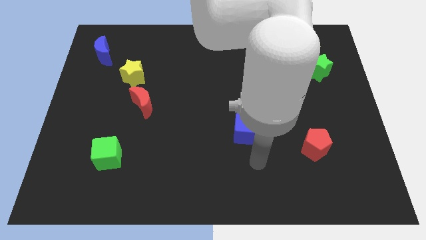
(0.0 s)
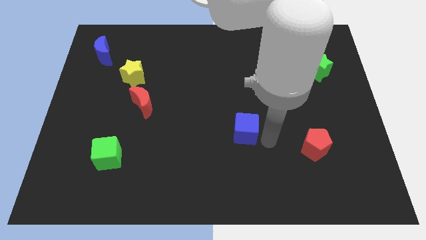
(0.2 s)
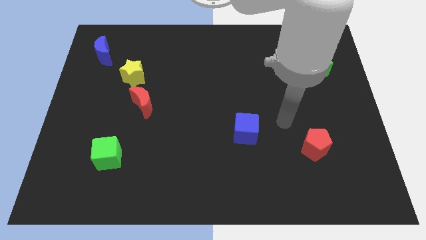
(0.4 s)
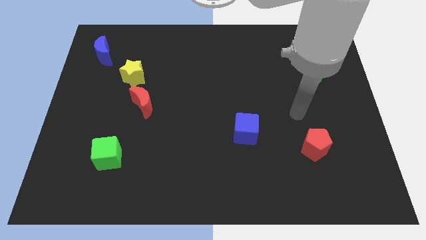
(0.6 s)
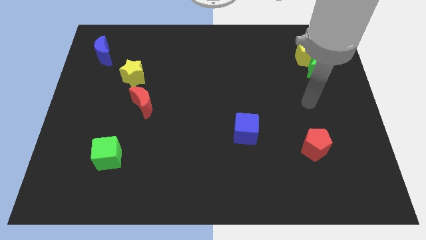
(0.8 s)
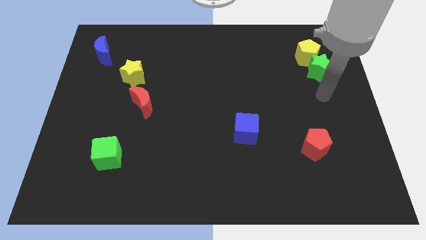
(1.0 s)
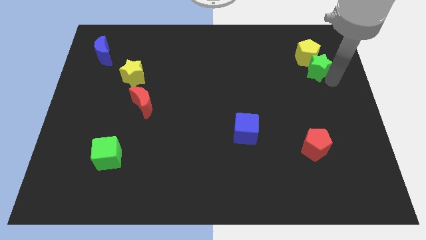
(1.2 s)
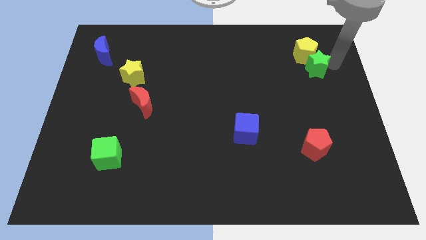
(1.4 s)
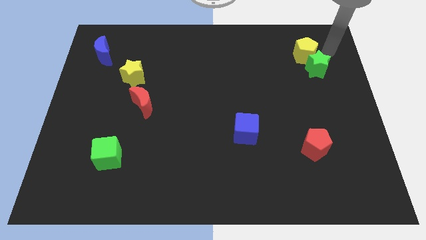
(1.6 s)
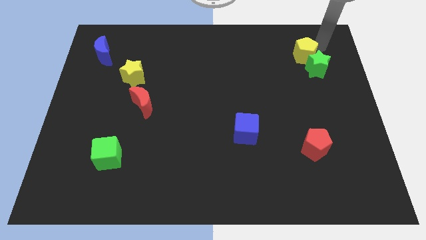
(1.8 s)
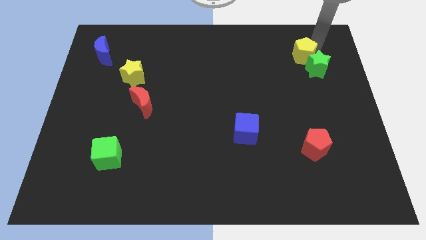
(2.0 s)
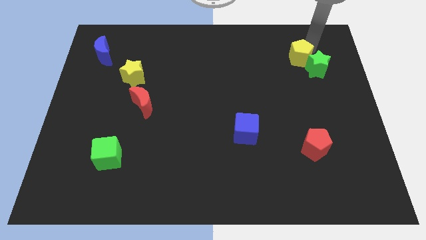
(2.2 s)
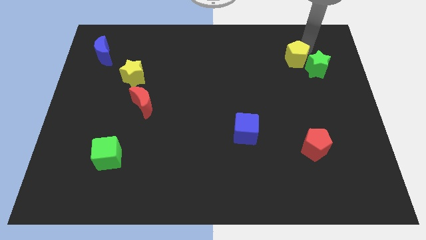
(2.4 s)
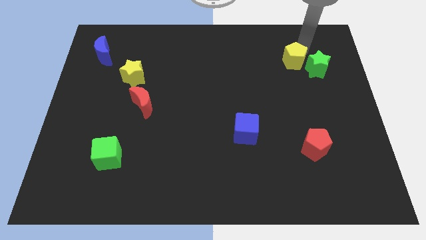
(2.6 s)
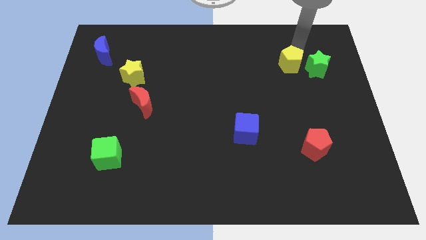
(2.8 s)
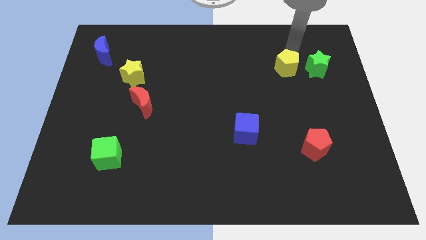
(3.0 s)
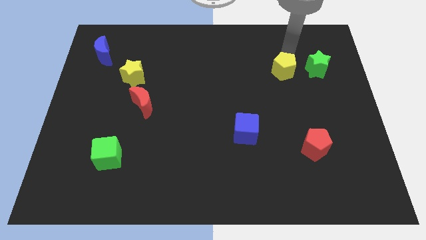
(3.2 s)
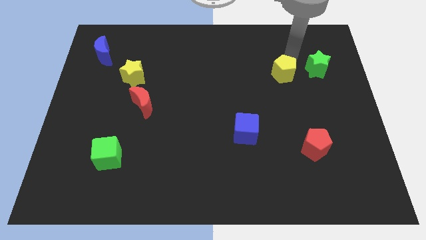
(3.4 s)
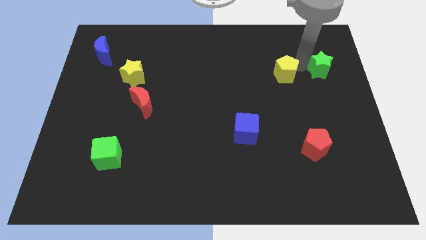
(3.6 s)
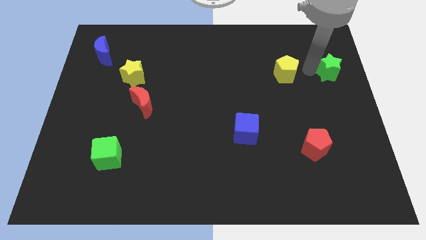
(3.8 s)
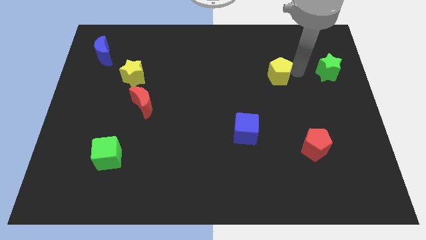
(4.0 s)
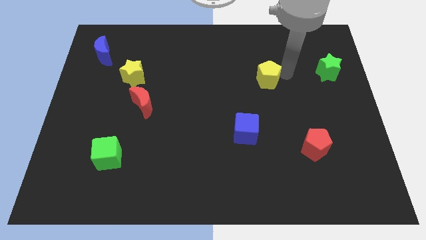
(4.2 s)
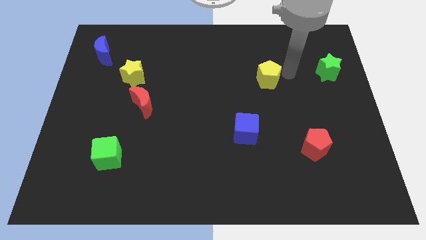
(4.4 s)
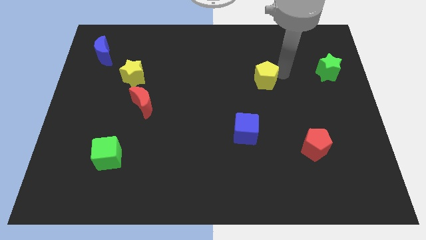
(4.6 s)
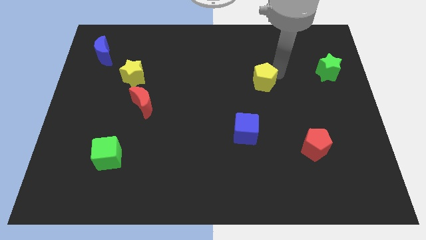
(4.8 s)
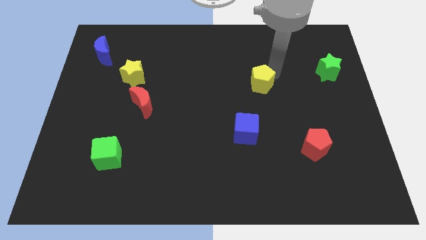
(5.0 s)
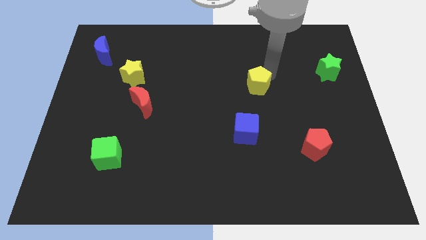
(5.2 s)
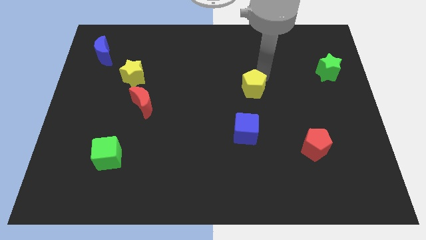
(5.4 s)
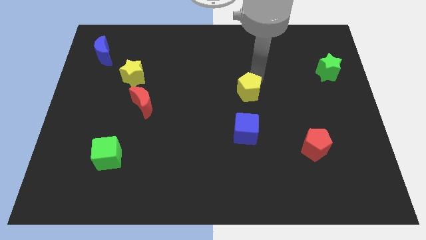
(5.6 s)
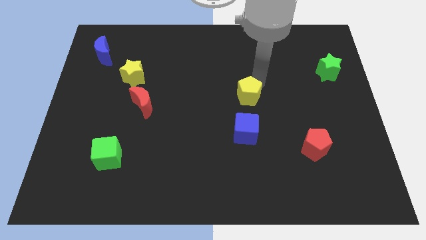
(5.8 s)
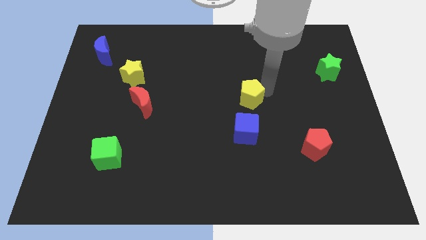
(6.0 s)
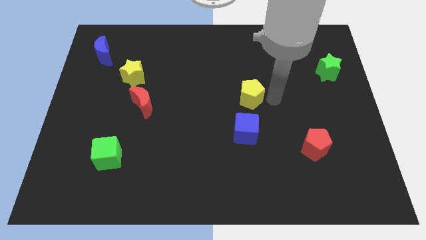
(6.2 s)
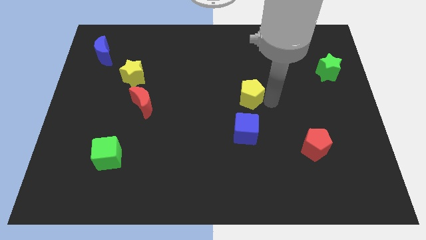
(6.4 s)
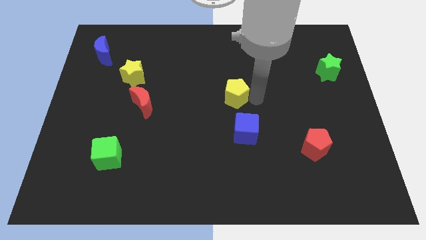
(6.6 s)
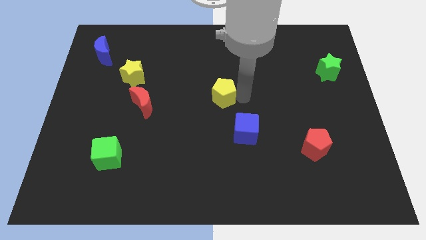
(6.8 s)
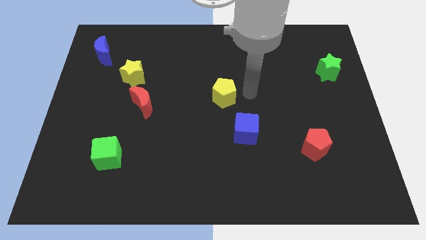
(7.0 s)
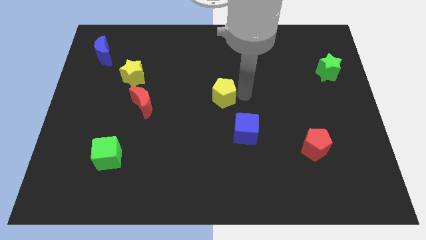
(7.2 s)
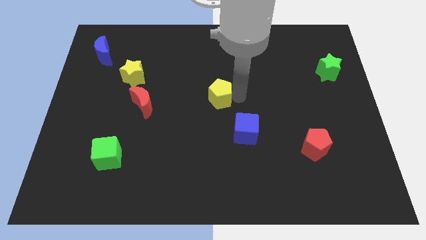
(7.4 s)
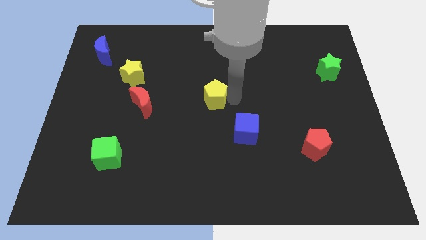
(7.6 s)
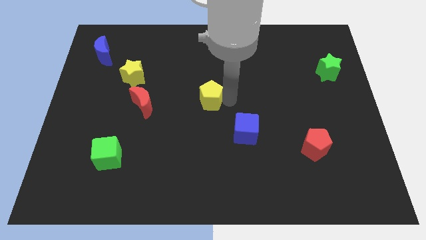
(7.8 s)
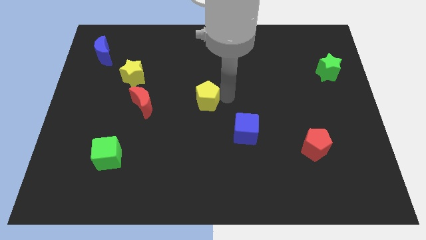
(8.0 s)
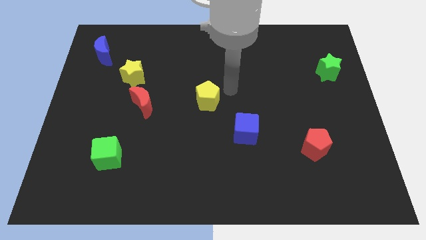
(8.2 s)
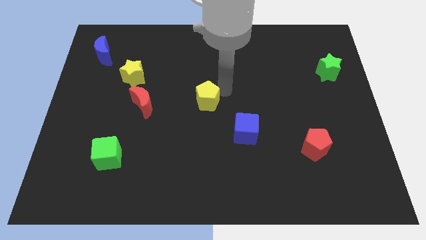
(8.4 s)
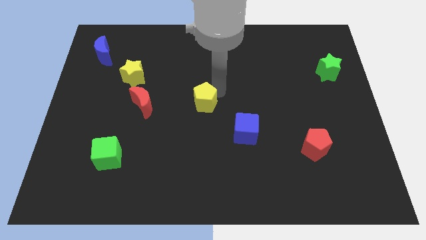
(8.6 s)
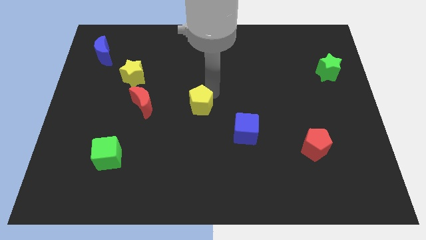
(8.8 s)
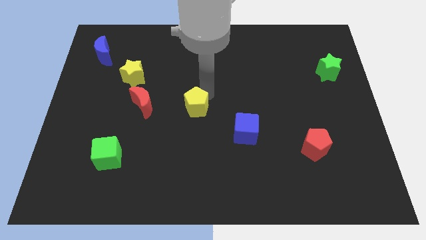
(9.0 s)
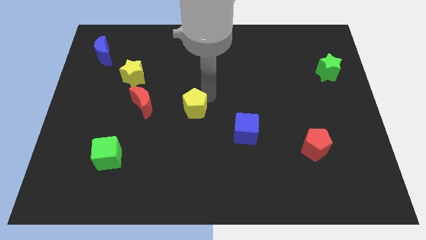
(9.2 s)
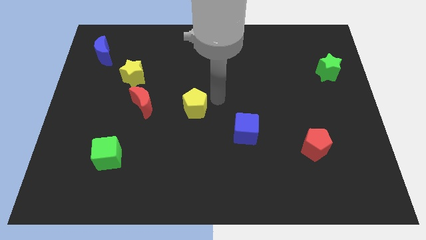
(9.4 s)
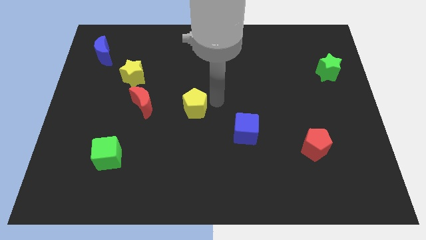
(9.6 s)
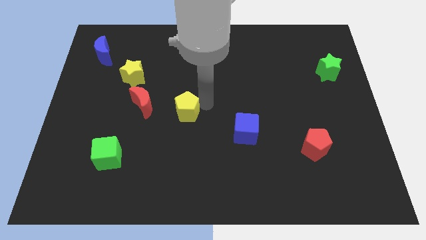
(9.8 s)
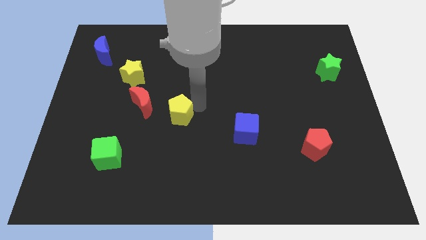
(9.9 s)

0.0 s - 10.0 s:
push the yellow pentagon to the bottom right side of the red moon

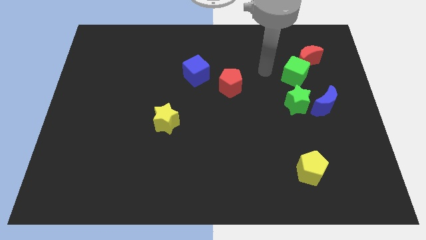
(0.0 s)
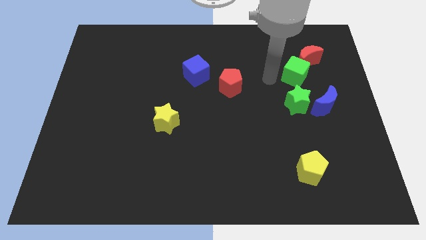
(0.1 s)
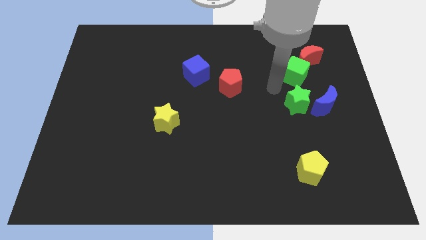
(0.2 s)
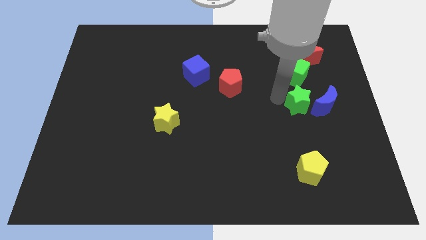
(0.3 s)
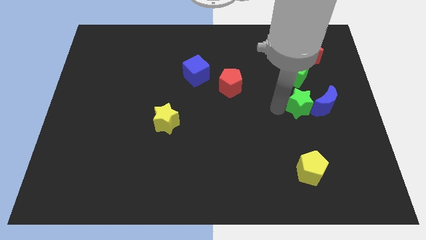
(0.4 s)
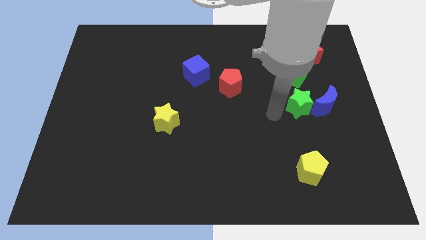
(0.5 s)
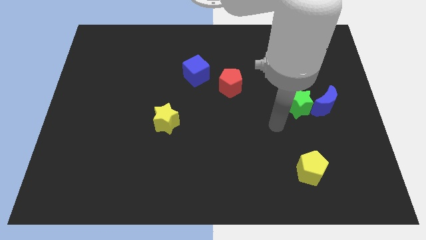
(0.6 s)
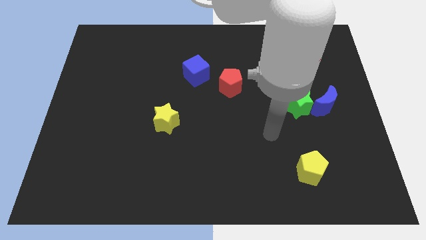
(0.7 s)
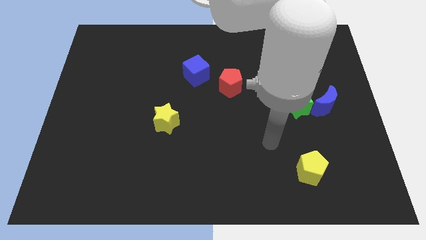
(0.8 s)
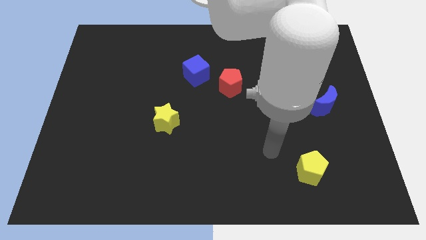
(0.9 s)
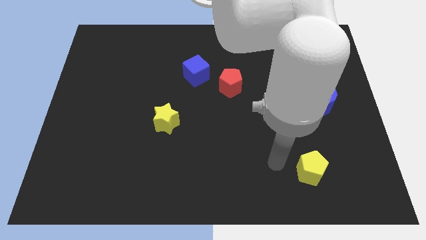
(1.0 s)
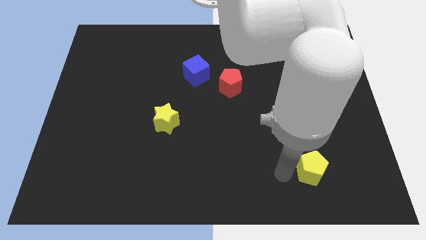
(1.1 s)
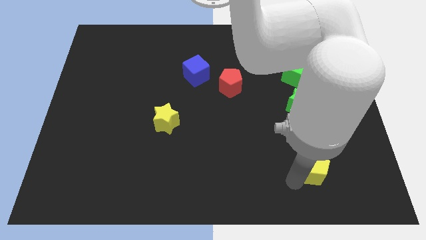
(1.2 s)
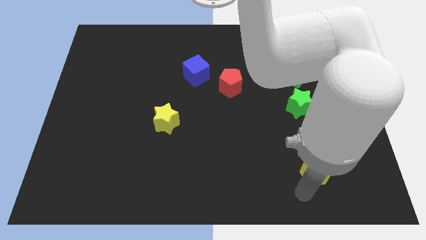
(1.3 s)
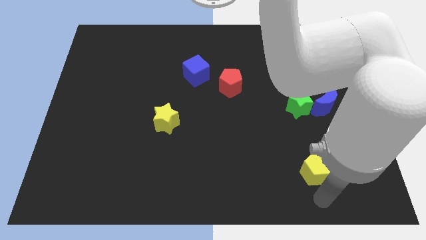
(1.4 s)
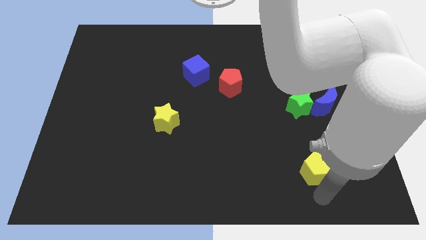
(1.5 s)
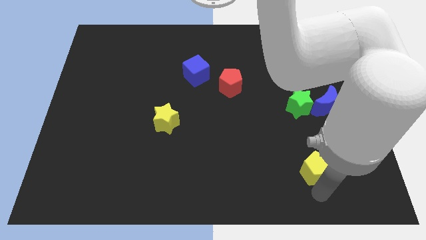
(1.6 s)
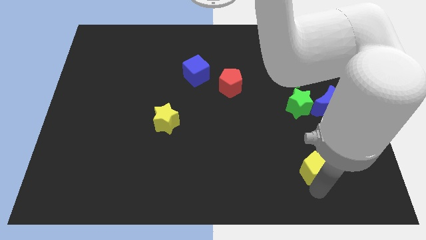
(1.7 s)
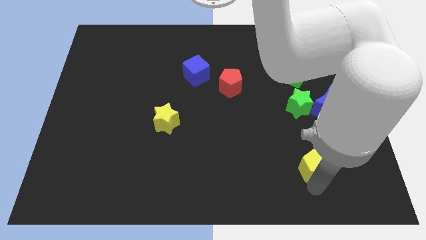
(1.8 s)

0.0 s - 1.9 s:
slide the yellow pentagon to the bottom of the green star

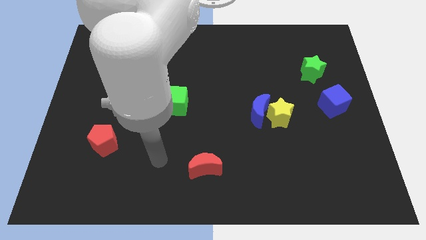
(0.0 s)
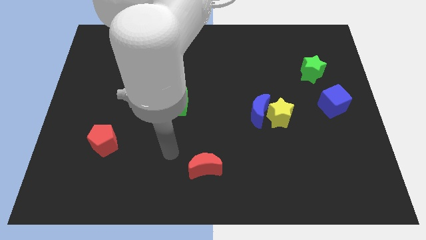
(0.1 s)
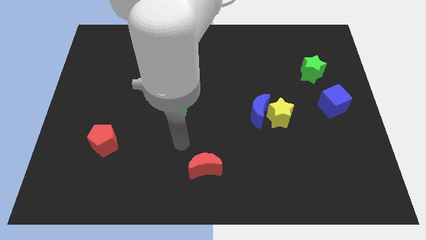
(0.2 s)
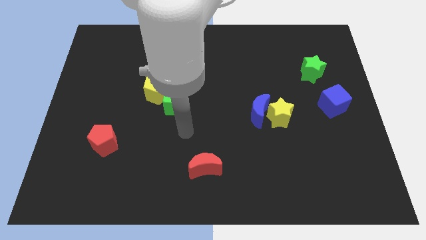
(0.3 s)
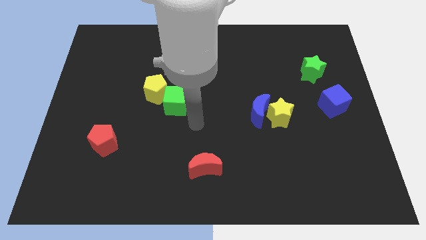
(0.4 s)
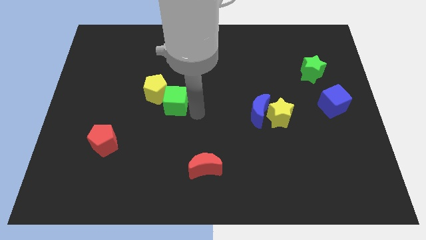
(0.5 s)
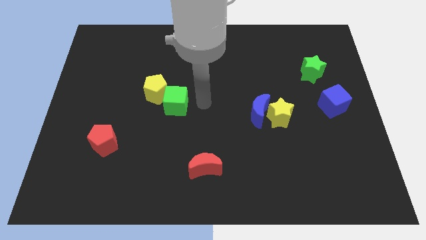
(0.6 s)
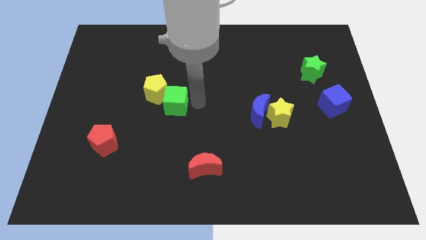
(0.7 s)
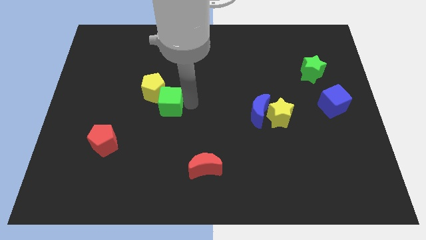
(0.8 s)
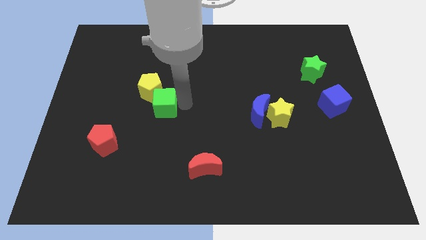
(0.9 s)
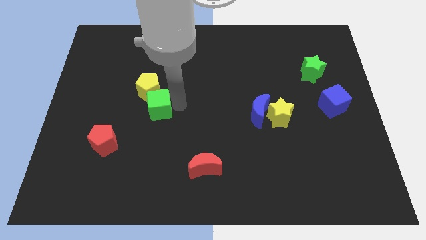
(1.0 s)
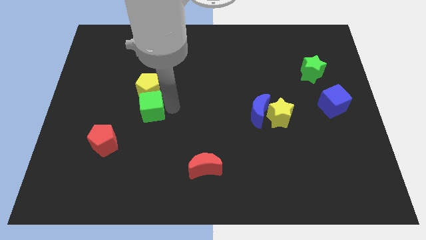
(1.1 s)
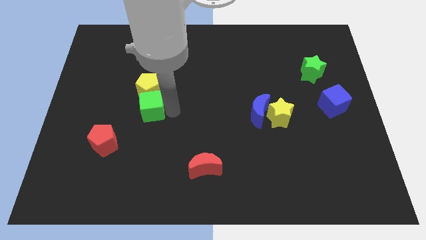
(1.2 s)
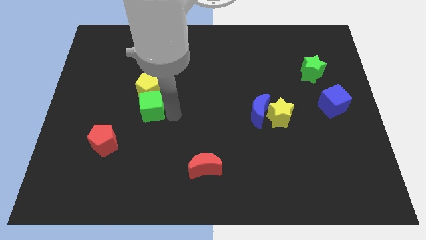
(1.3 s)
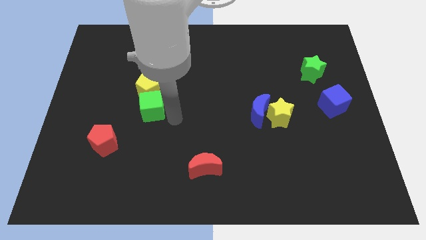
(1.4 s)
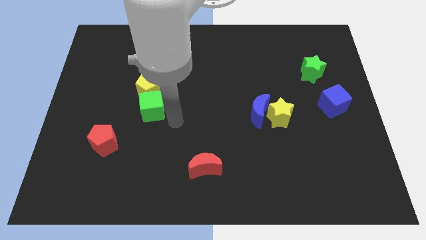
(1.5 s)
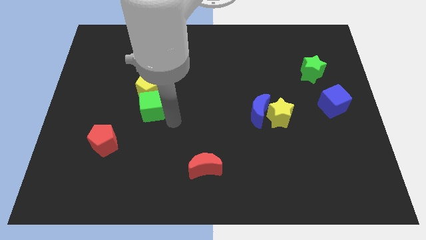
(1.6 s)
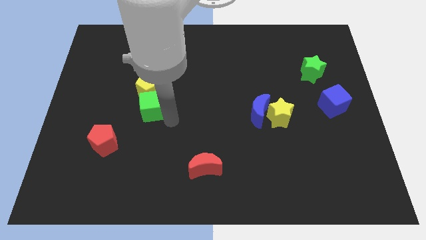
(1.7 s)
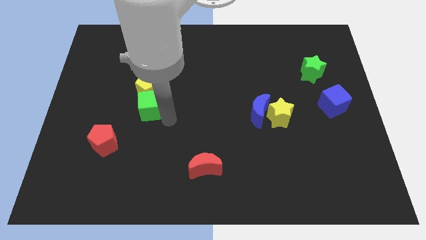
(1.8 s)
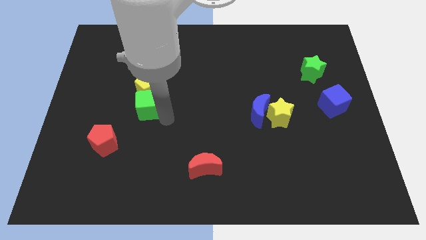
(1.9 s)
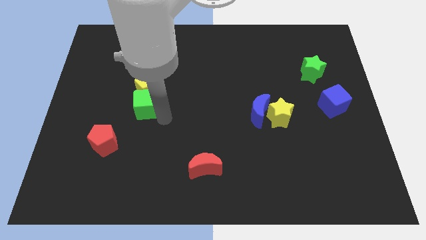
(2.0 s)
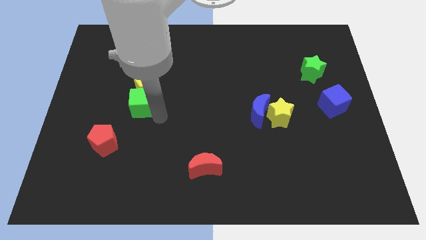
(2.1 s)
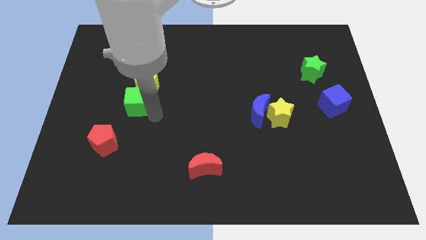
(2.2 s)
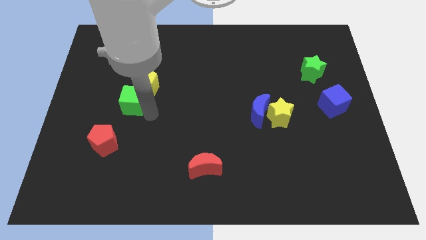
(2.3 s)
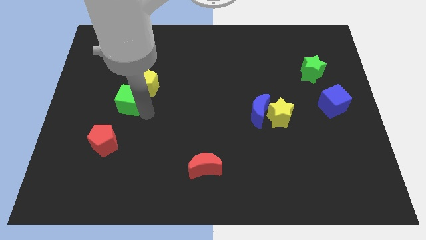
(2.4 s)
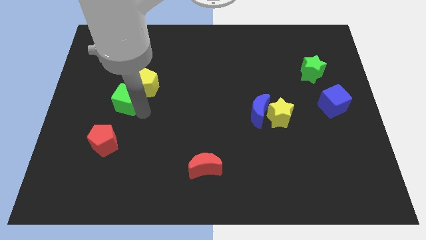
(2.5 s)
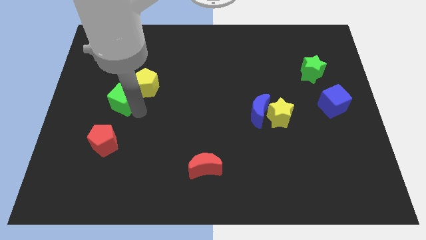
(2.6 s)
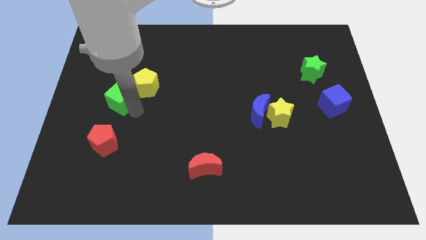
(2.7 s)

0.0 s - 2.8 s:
slide the green cube just left of the yellow pentagon
